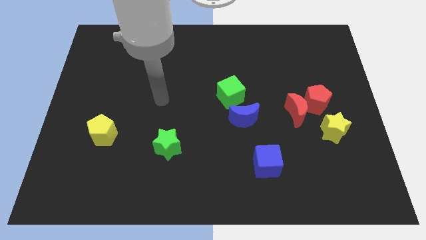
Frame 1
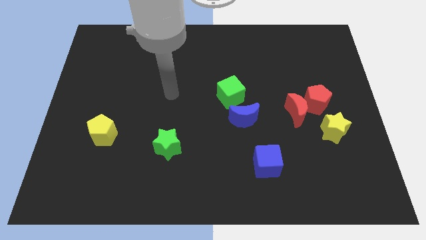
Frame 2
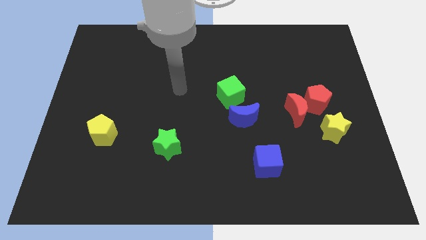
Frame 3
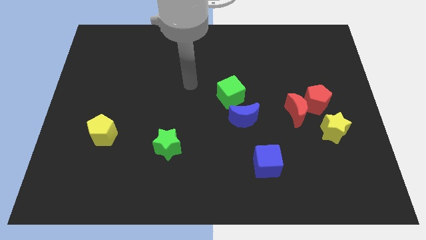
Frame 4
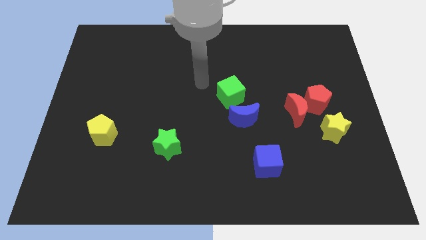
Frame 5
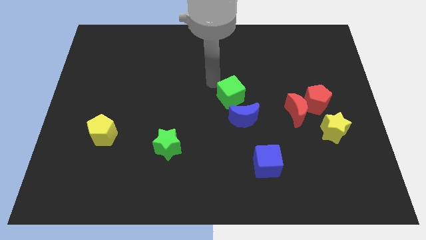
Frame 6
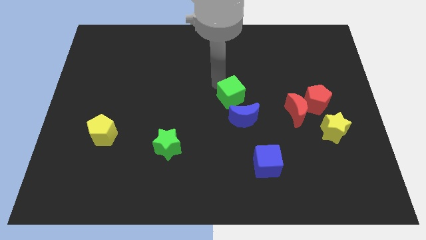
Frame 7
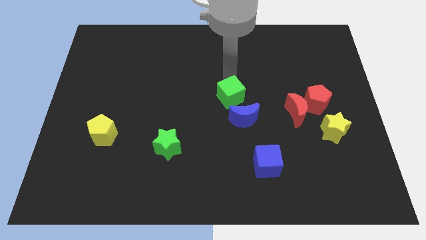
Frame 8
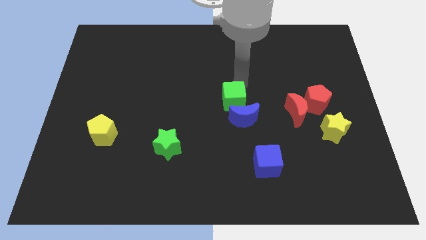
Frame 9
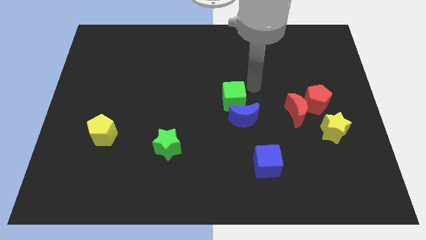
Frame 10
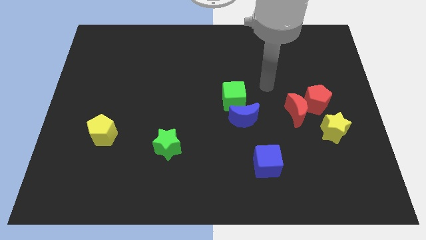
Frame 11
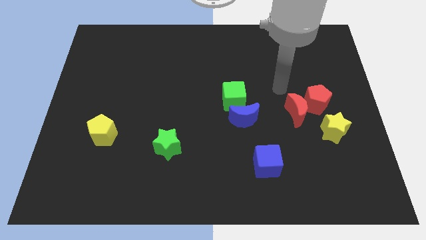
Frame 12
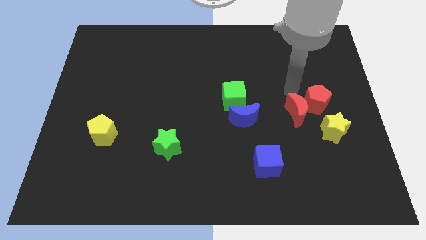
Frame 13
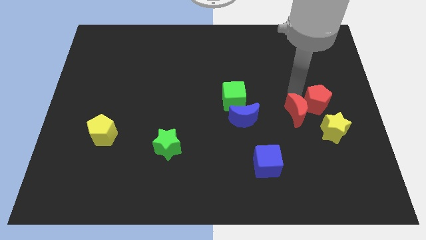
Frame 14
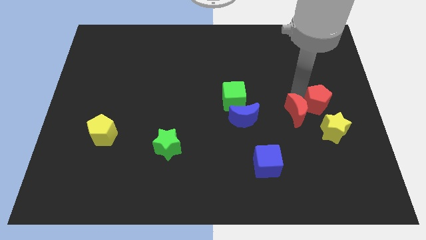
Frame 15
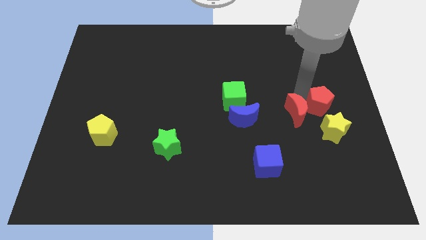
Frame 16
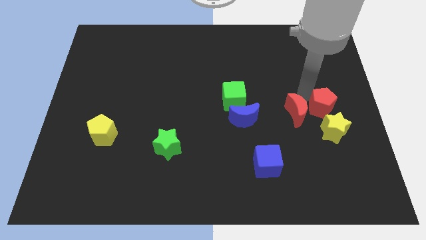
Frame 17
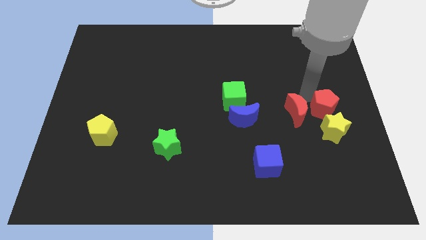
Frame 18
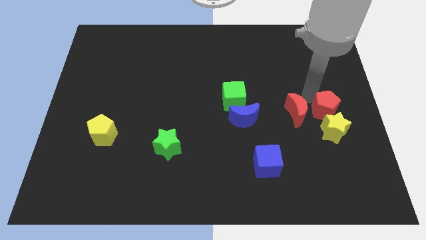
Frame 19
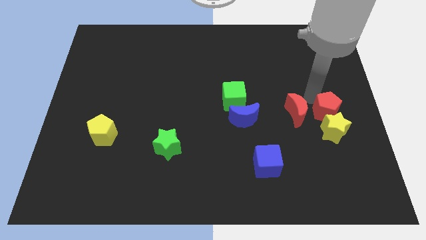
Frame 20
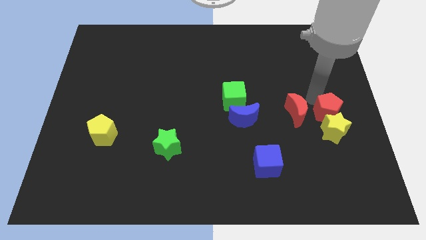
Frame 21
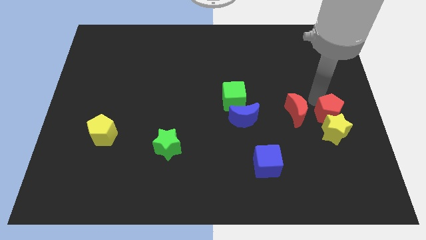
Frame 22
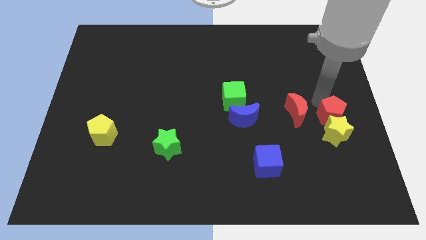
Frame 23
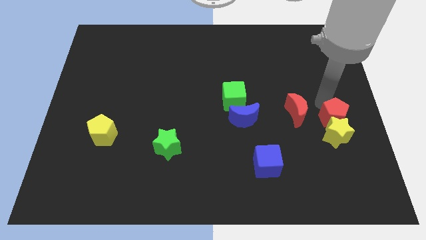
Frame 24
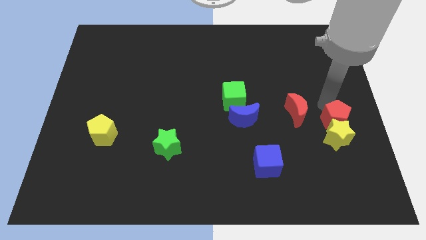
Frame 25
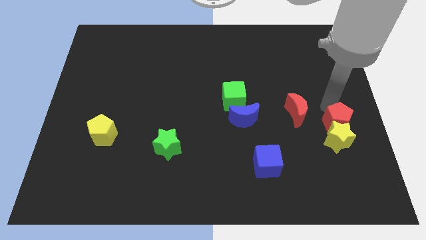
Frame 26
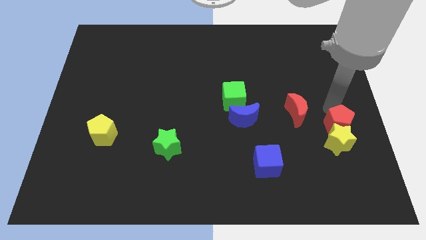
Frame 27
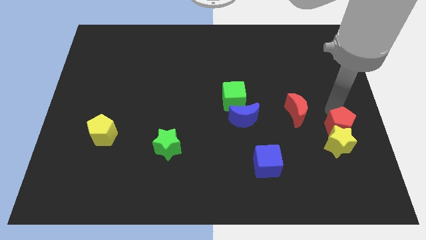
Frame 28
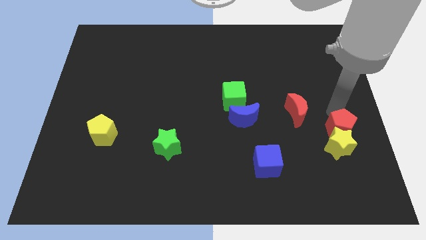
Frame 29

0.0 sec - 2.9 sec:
push the red pentagon a little downwards

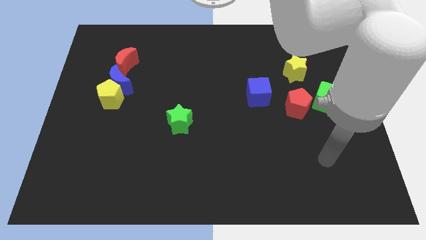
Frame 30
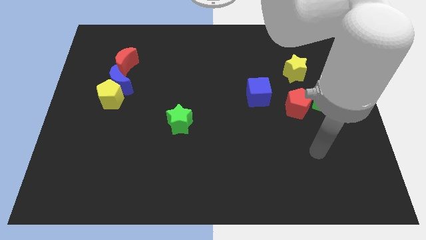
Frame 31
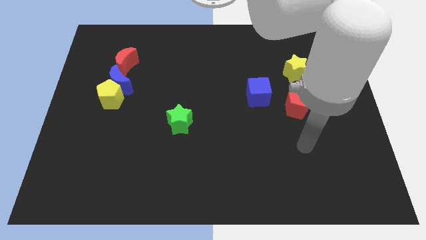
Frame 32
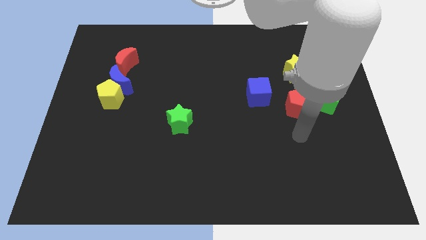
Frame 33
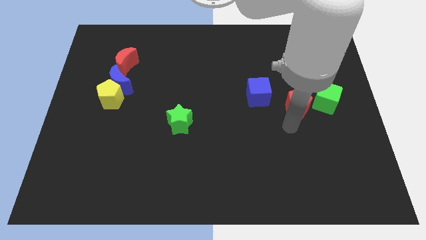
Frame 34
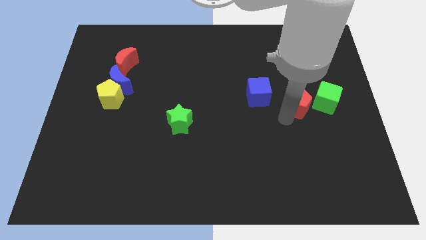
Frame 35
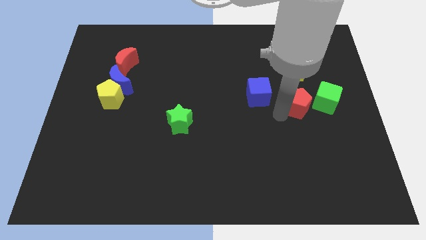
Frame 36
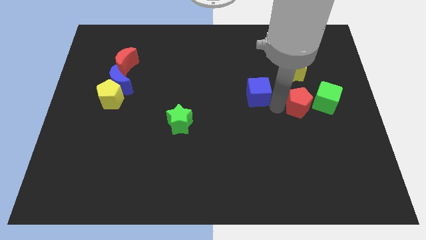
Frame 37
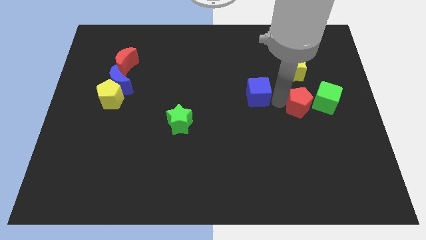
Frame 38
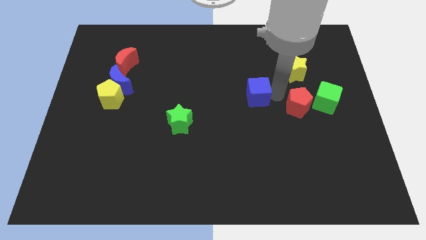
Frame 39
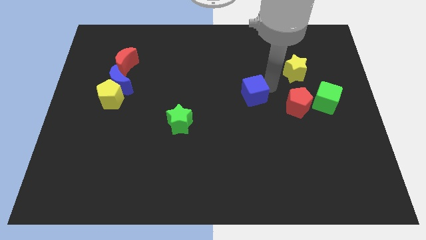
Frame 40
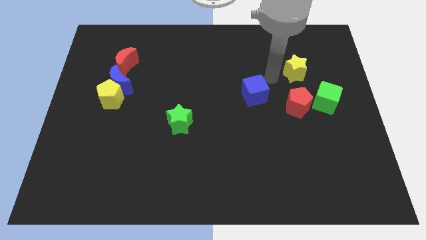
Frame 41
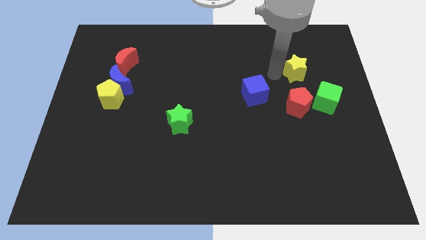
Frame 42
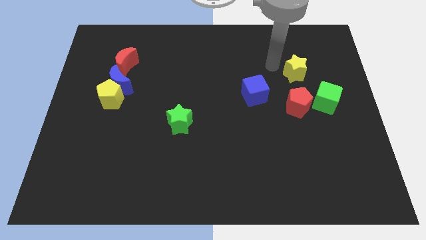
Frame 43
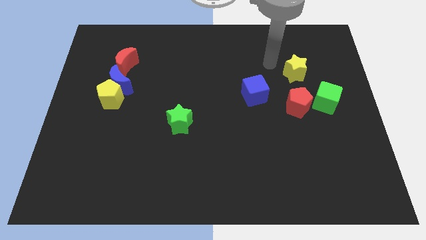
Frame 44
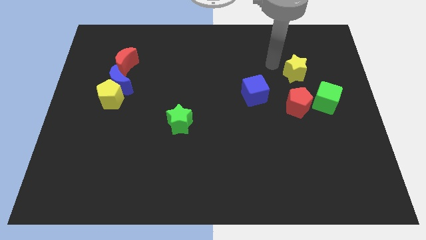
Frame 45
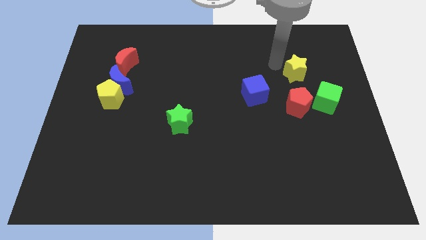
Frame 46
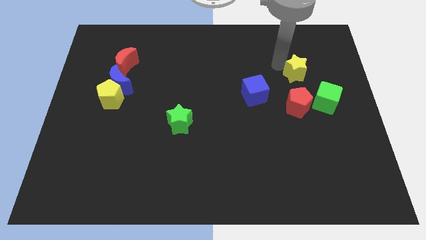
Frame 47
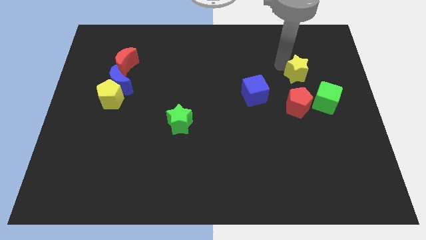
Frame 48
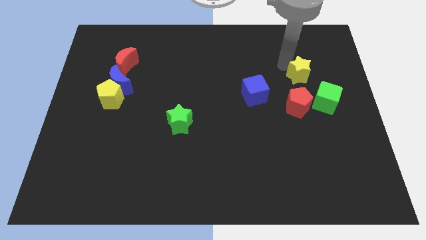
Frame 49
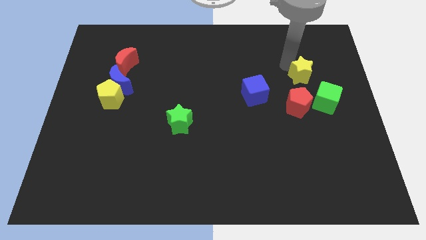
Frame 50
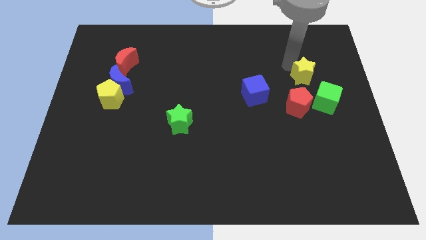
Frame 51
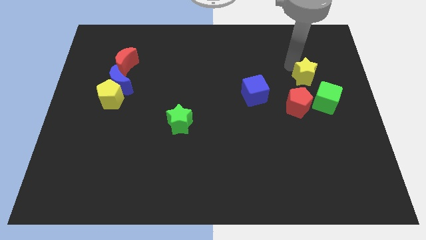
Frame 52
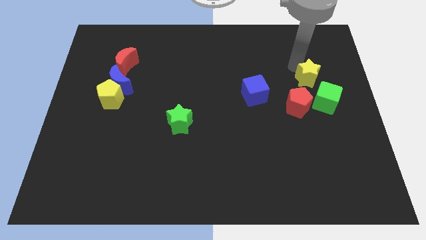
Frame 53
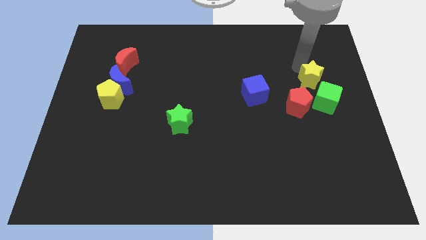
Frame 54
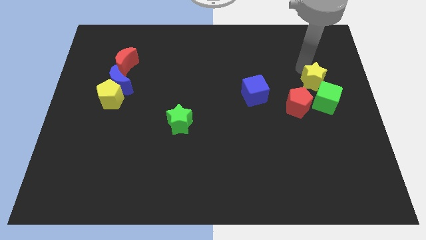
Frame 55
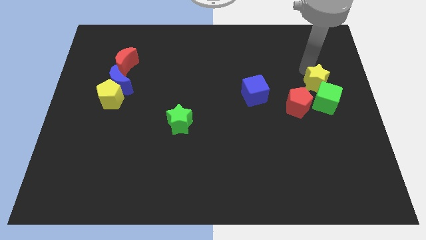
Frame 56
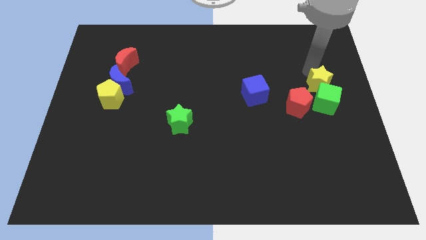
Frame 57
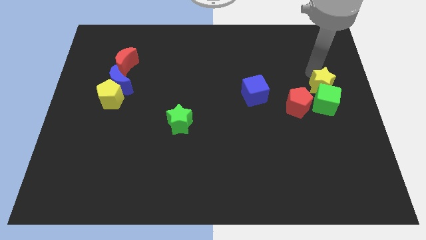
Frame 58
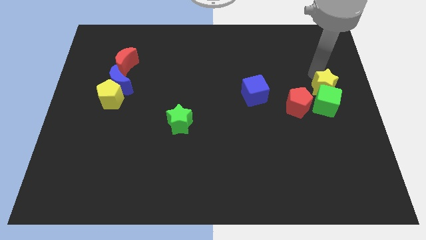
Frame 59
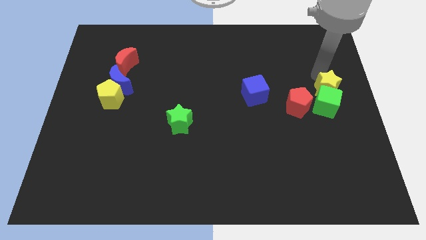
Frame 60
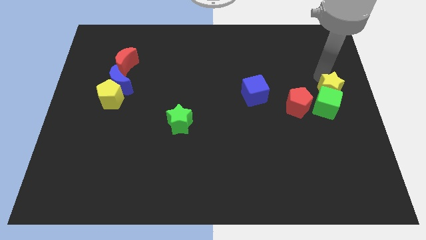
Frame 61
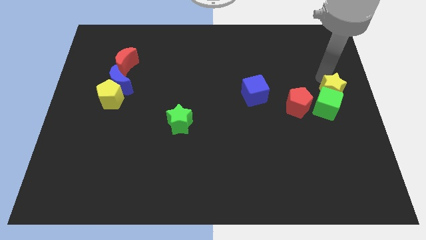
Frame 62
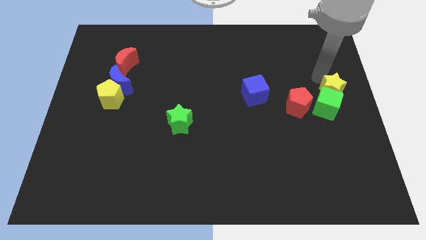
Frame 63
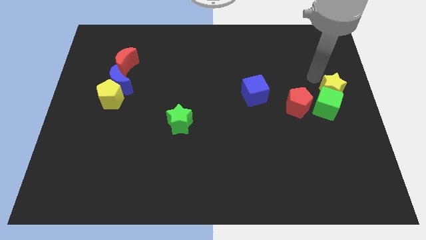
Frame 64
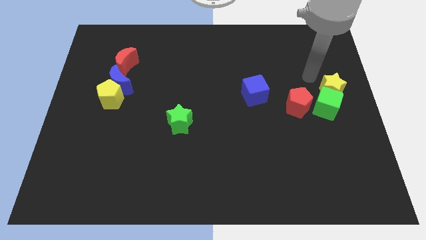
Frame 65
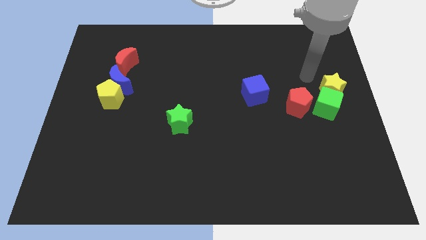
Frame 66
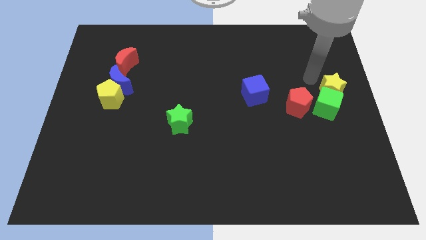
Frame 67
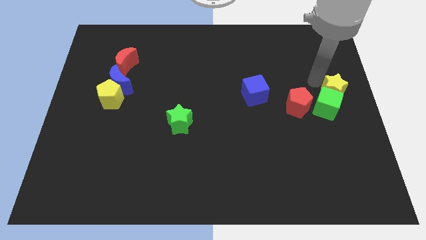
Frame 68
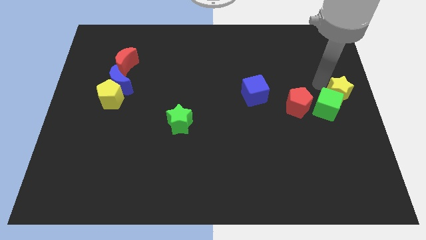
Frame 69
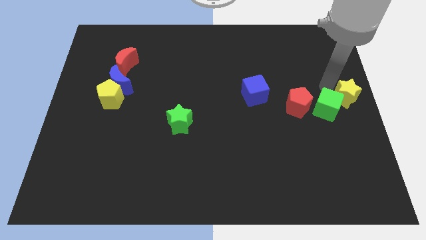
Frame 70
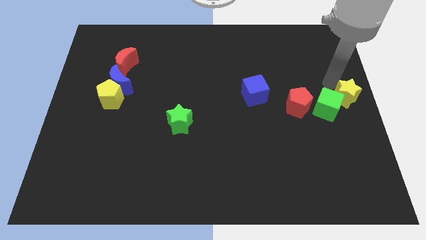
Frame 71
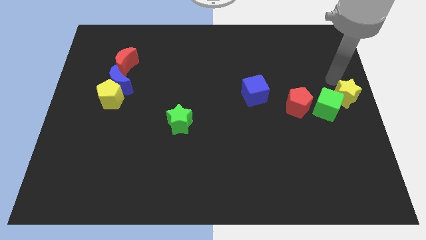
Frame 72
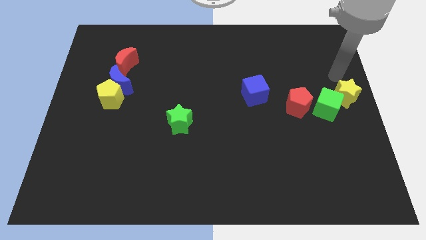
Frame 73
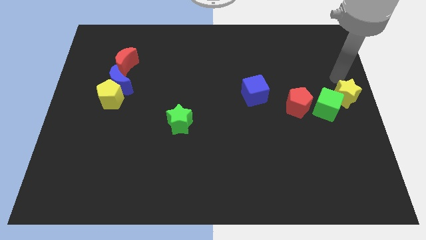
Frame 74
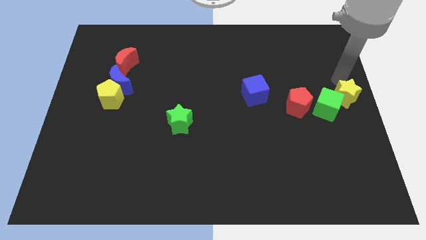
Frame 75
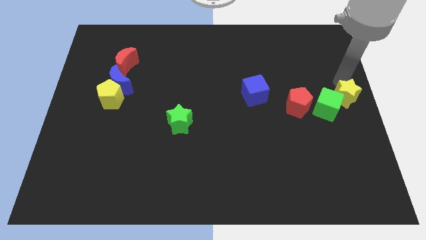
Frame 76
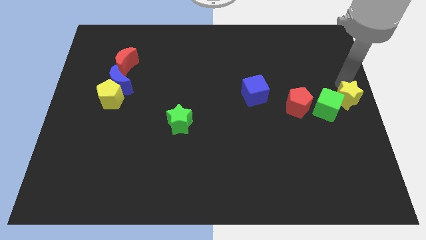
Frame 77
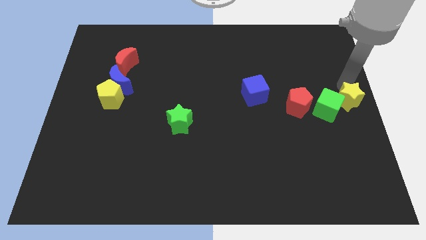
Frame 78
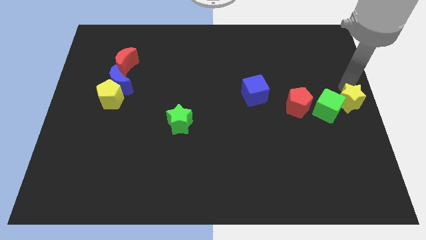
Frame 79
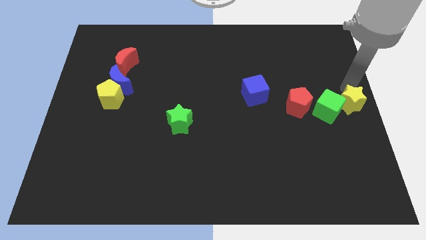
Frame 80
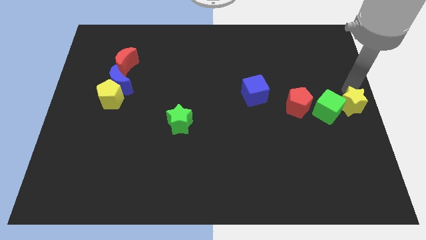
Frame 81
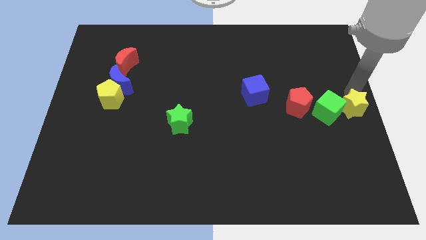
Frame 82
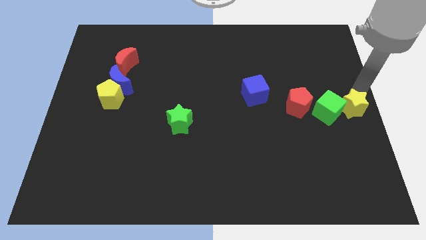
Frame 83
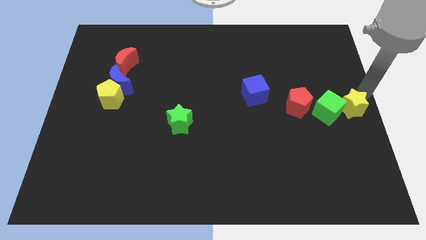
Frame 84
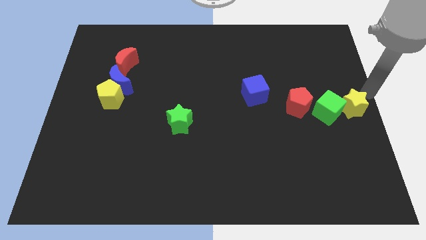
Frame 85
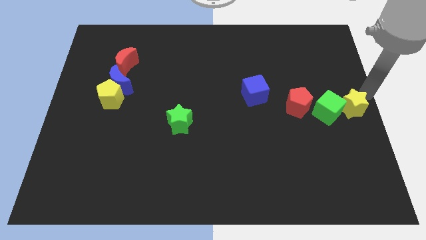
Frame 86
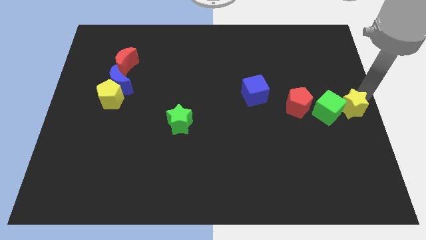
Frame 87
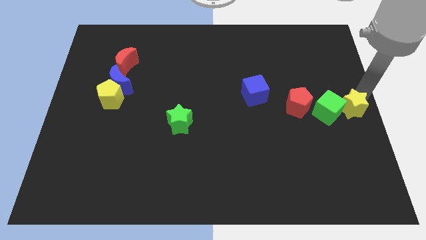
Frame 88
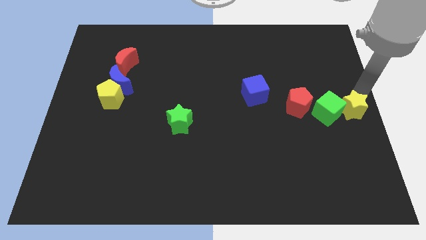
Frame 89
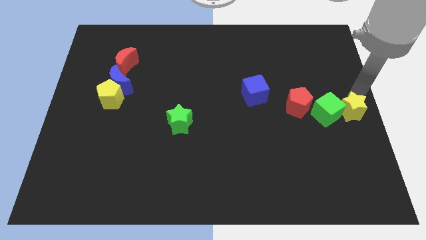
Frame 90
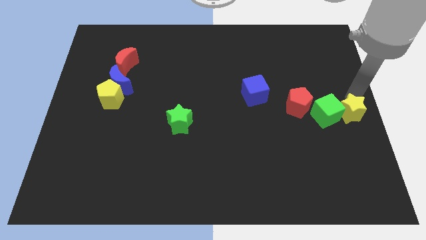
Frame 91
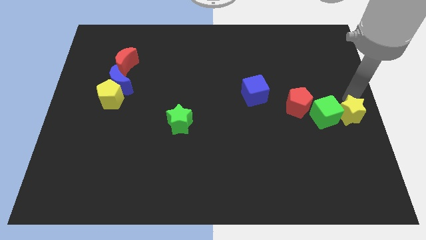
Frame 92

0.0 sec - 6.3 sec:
slide the yellow star somewhat down
